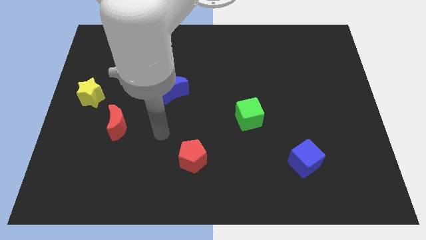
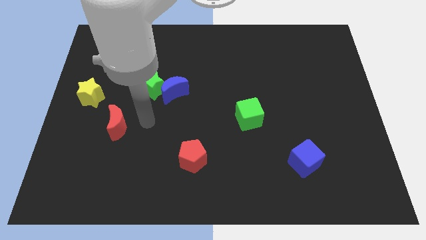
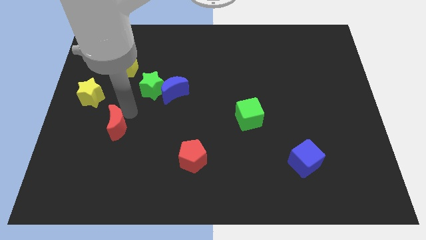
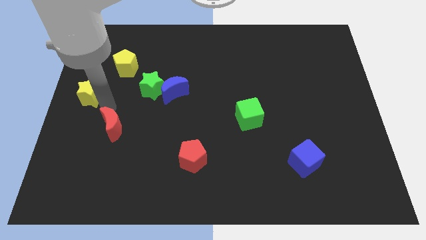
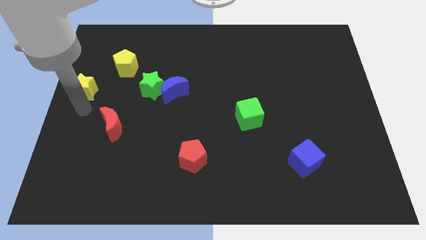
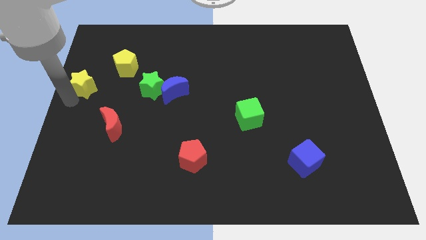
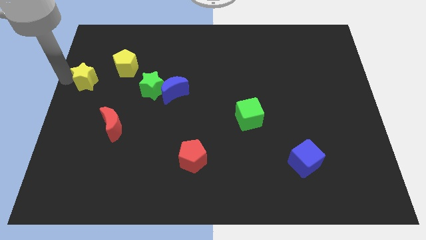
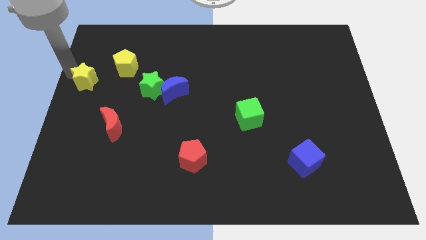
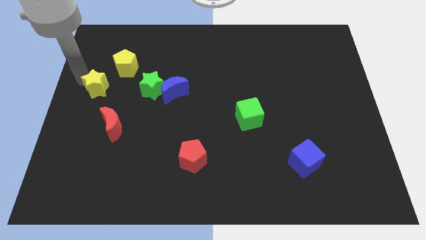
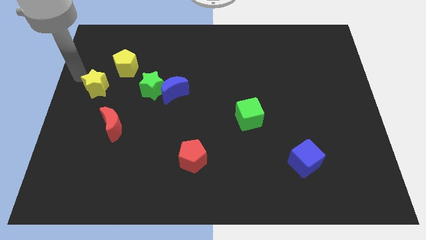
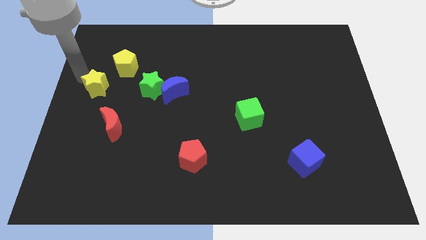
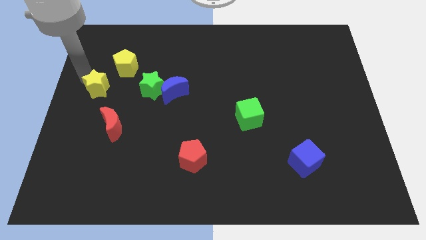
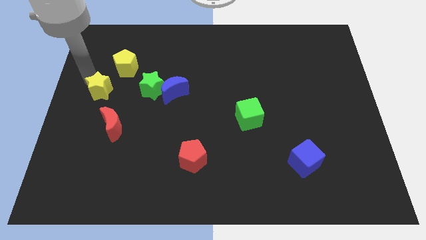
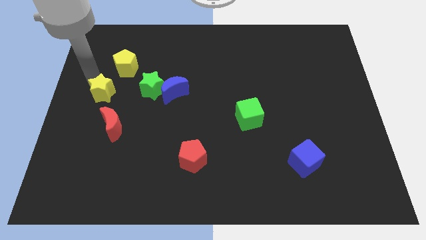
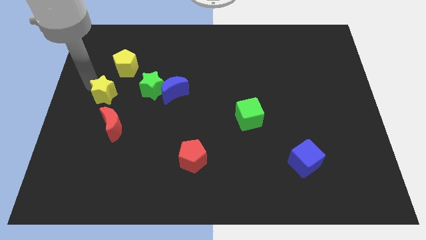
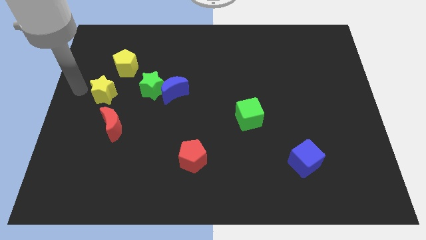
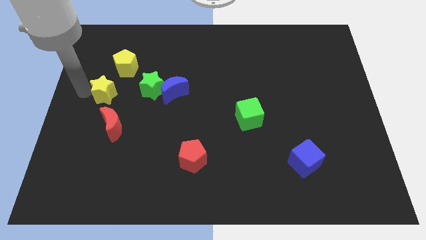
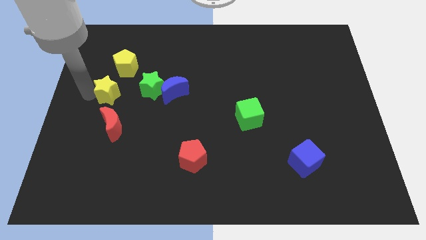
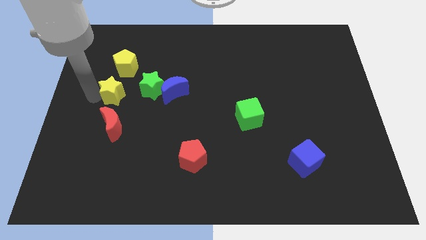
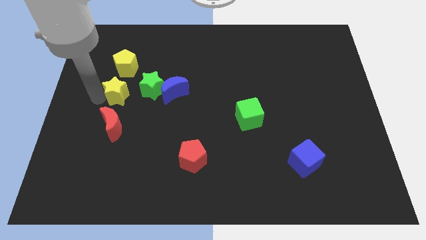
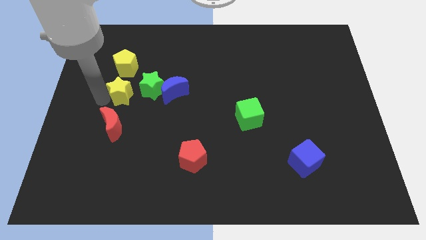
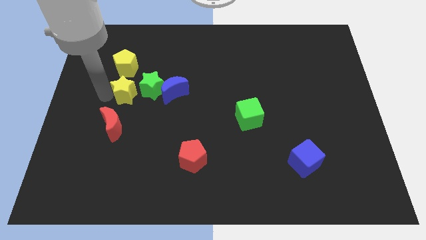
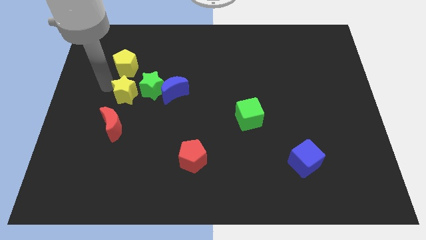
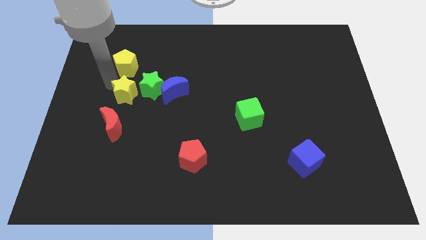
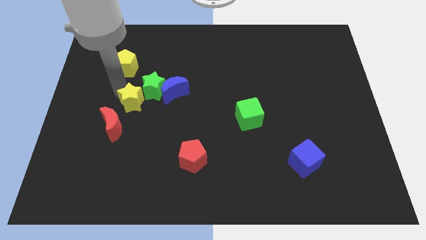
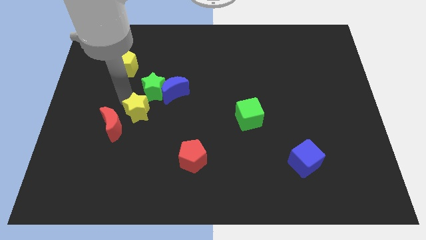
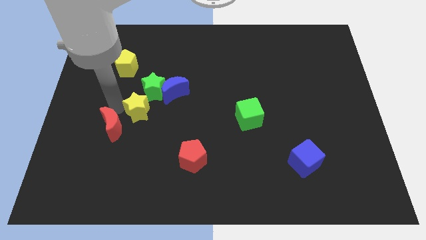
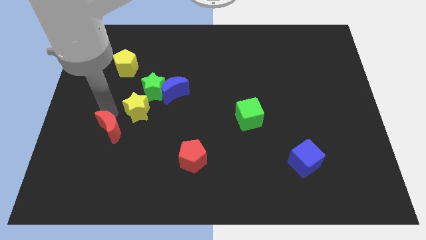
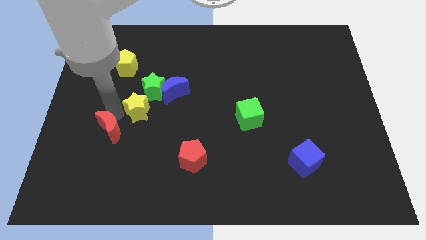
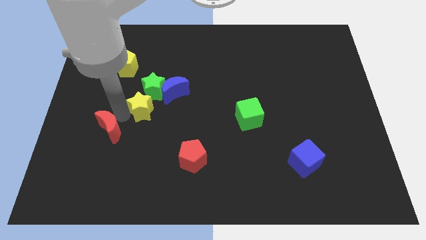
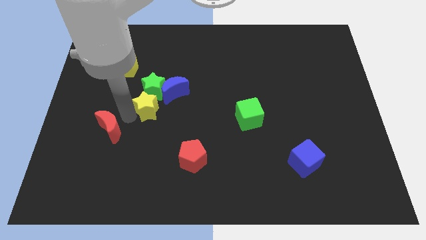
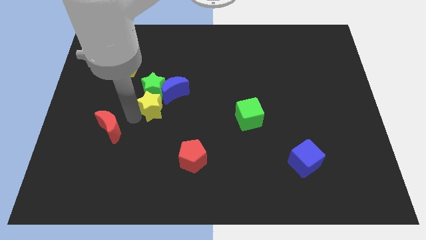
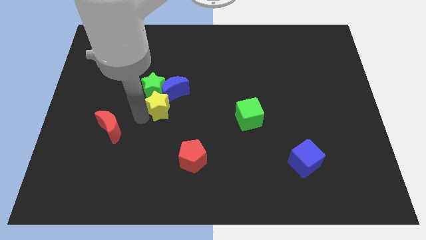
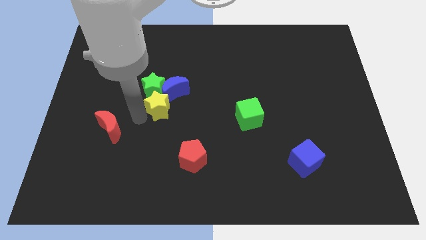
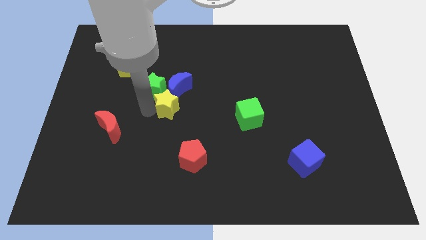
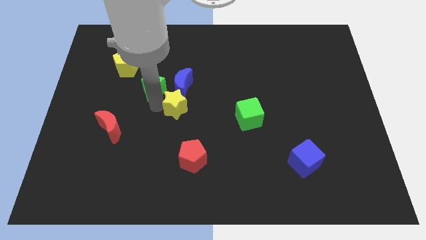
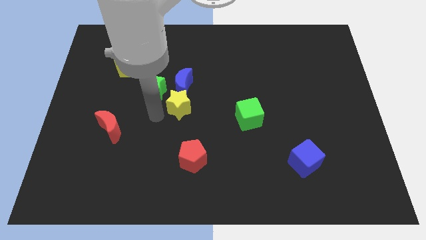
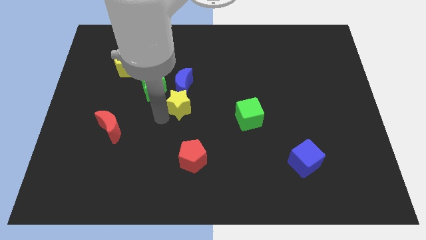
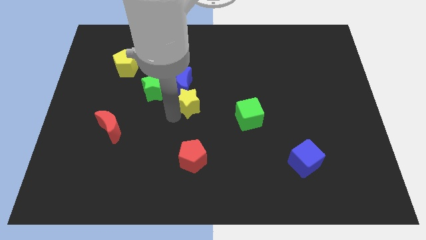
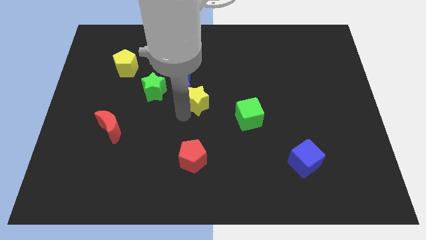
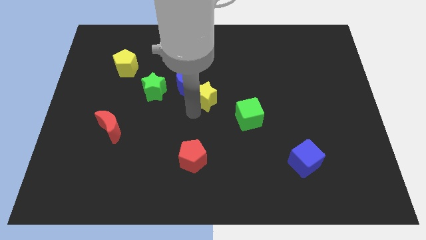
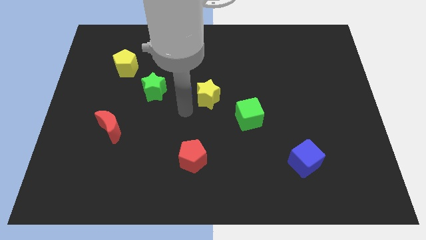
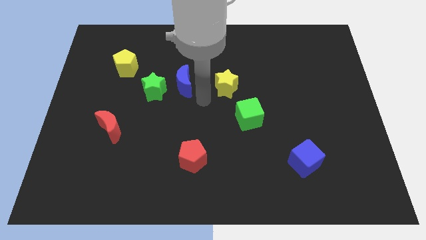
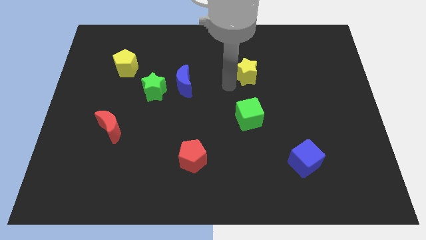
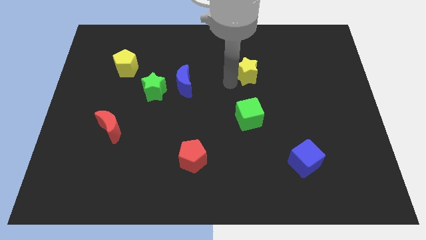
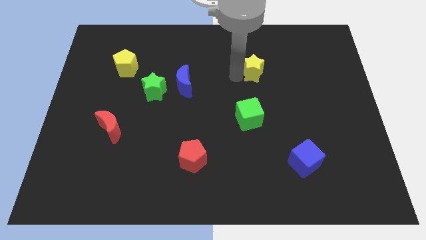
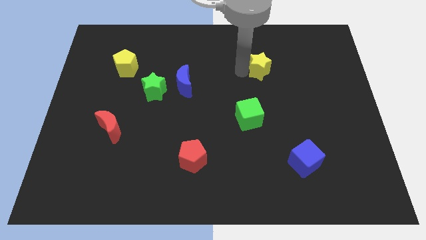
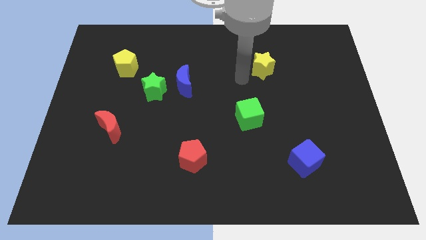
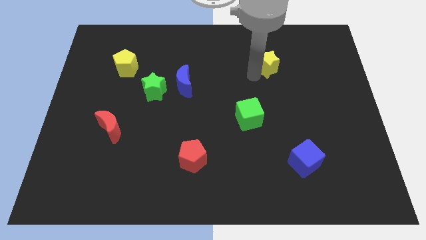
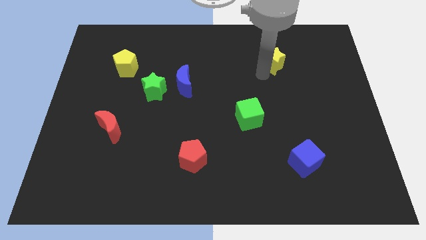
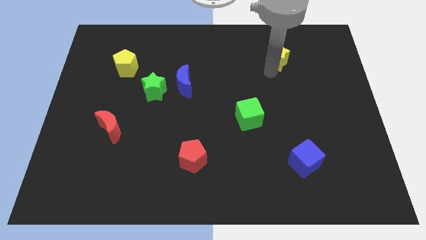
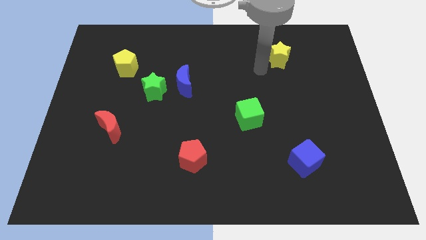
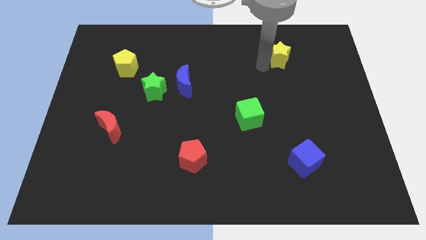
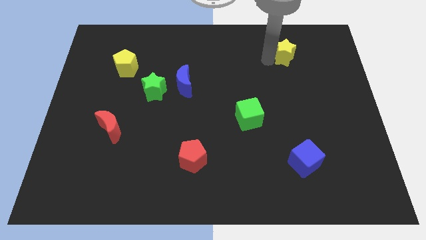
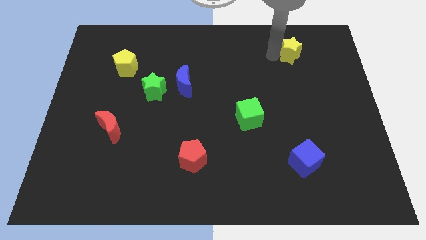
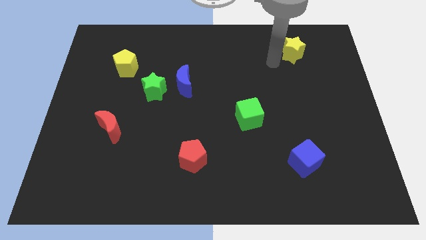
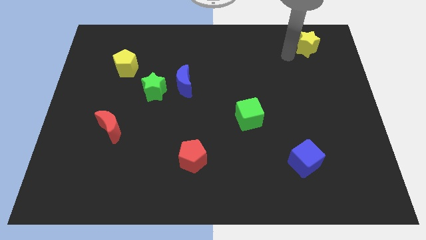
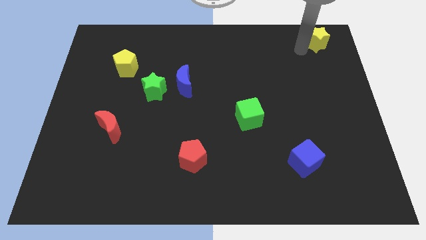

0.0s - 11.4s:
put the yellow star to the top right

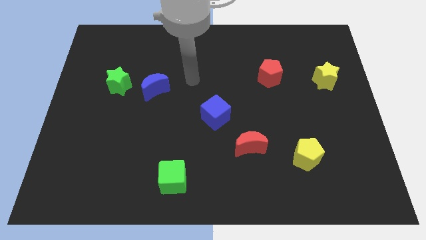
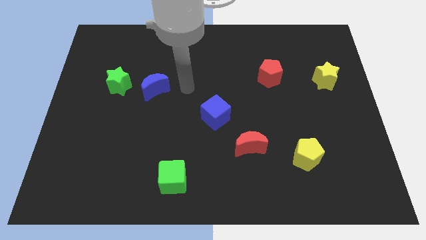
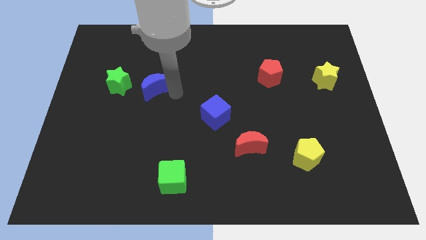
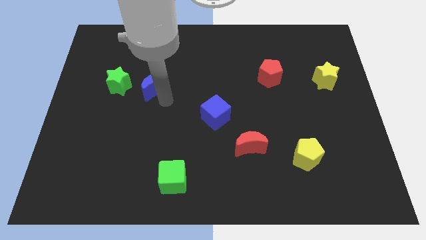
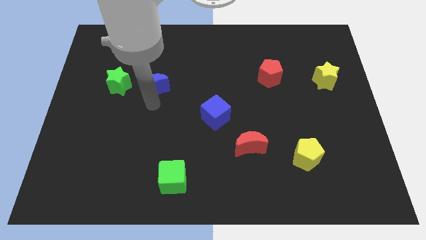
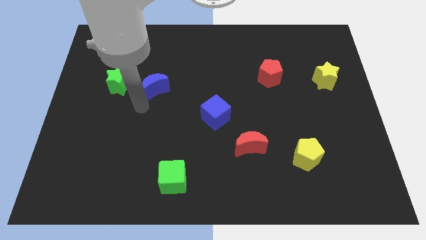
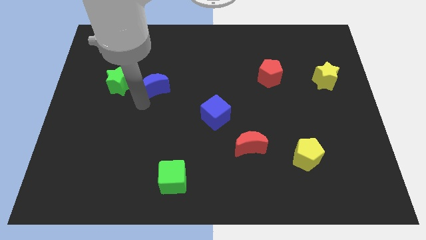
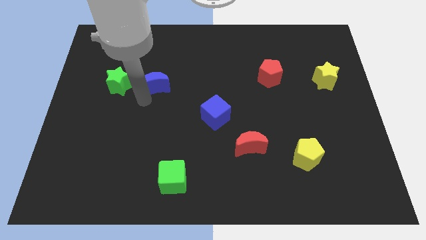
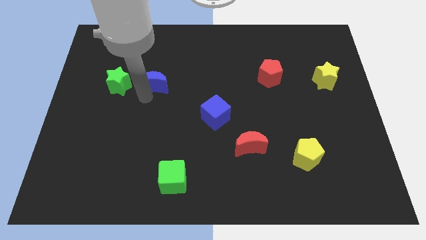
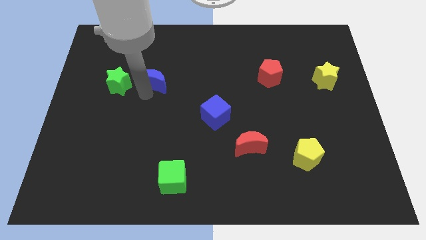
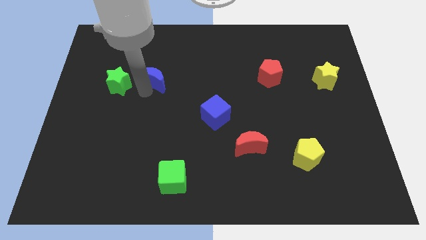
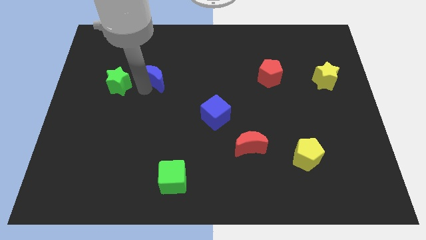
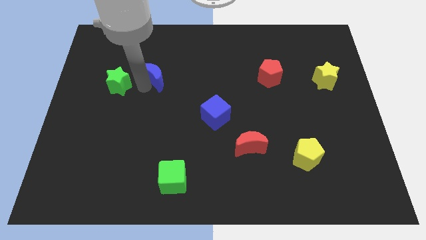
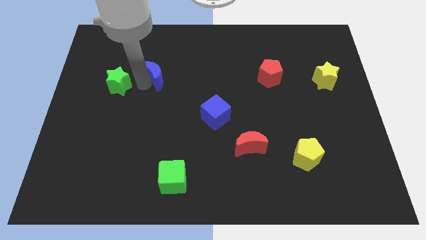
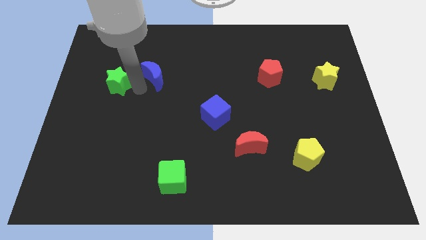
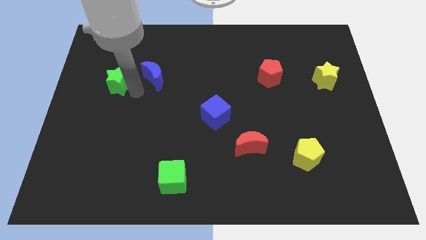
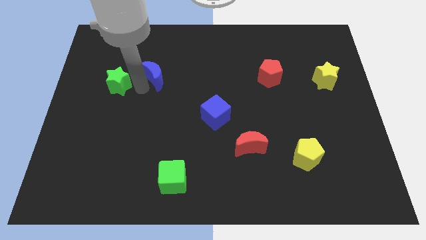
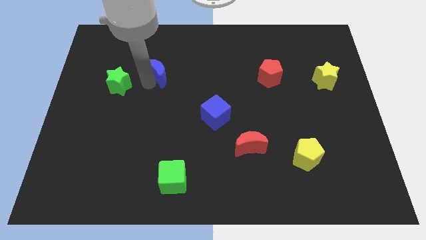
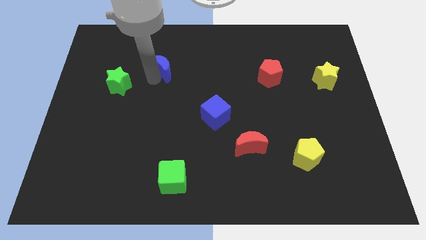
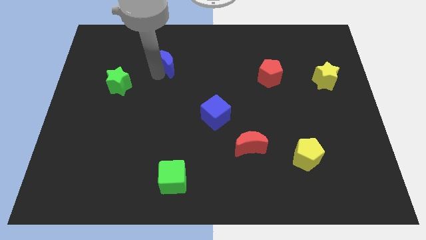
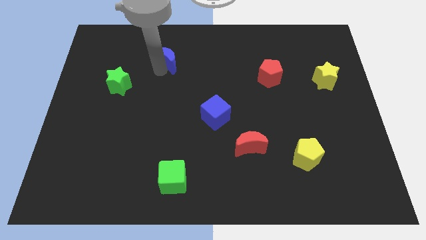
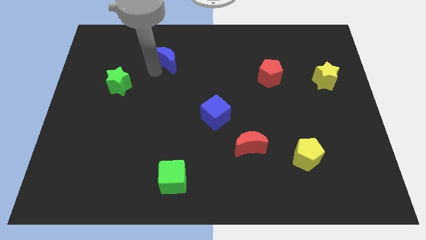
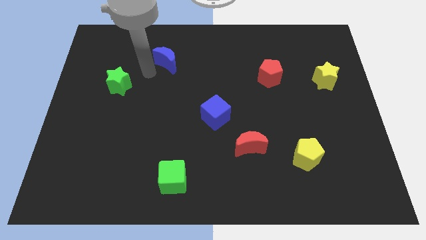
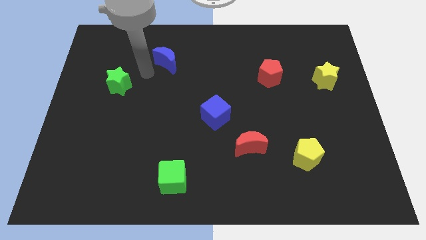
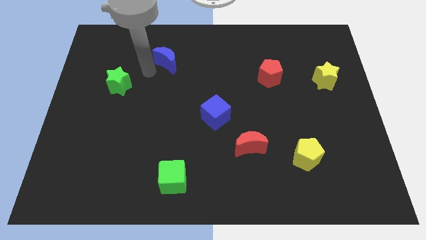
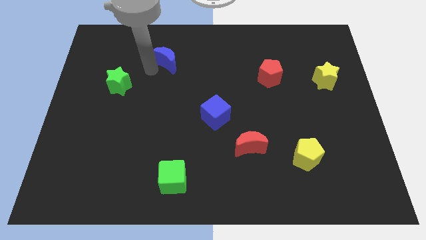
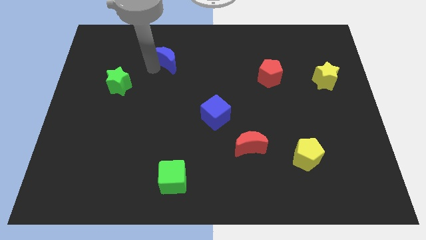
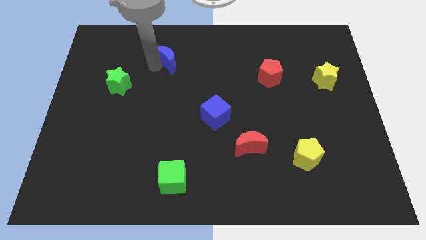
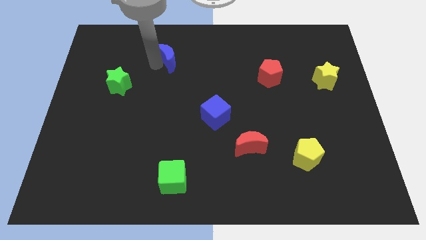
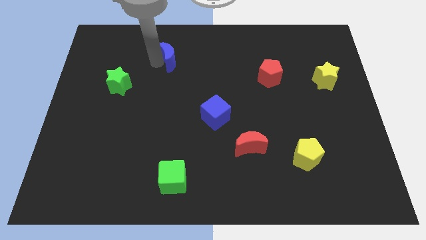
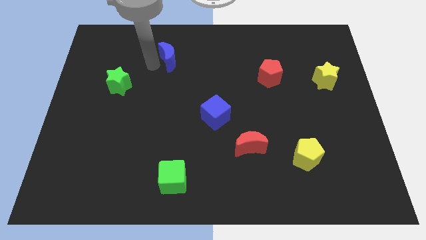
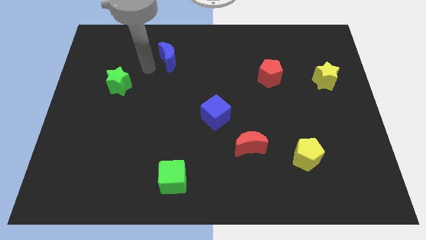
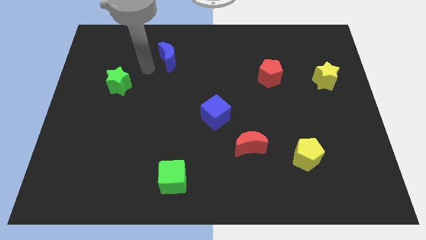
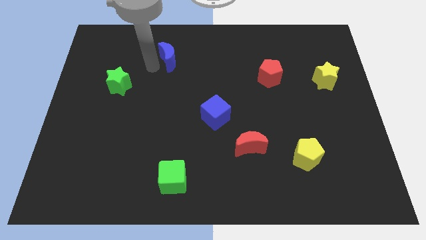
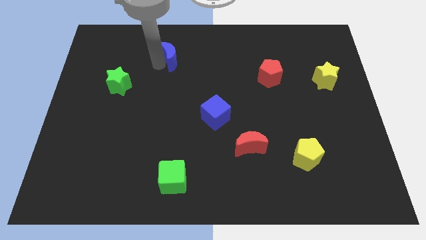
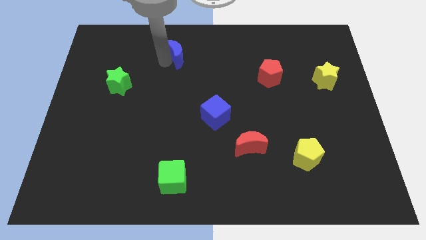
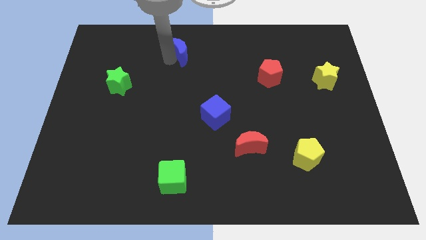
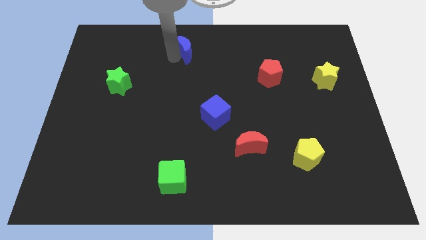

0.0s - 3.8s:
slide the blue moon to the top side
